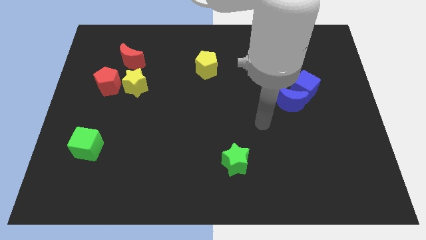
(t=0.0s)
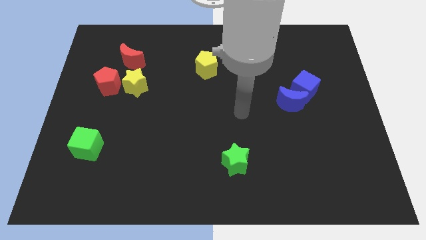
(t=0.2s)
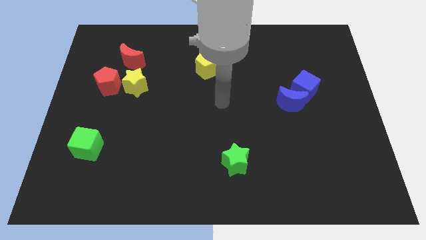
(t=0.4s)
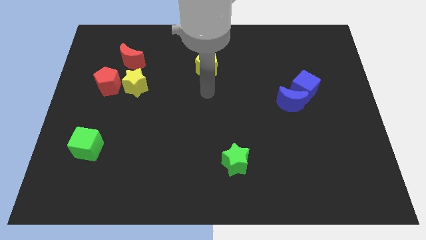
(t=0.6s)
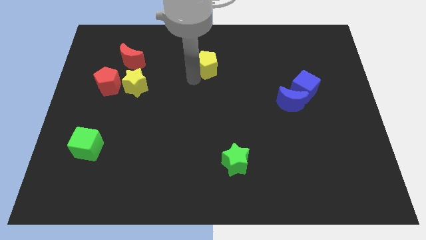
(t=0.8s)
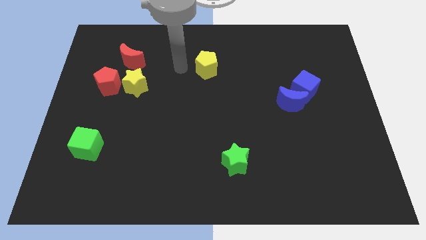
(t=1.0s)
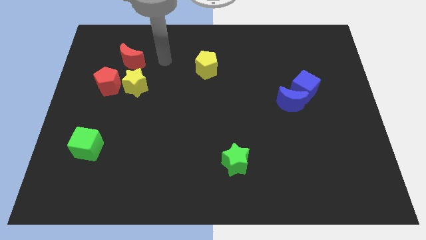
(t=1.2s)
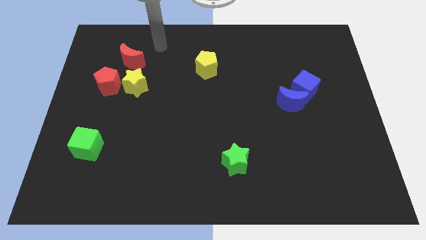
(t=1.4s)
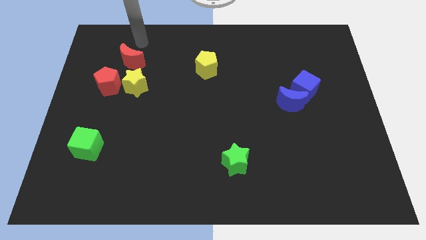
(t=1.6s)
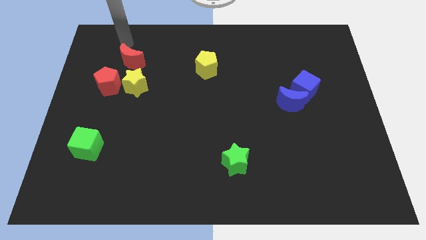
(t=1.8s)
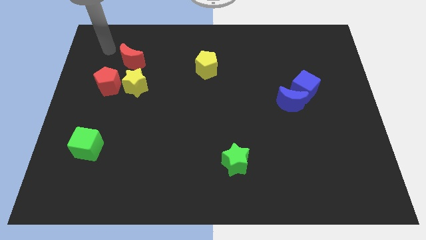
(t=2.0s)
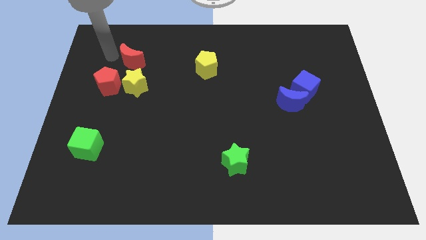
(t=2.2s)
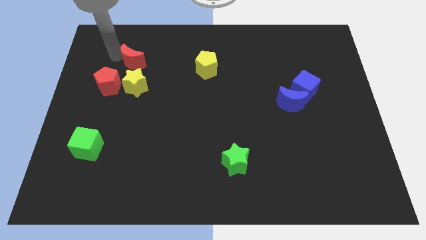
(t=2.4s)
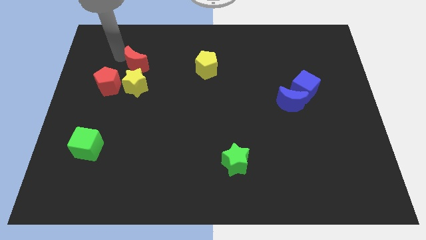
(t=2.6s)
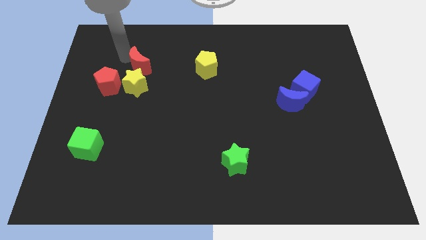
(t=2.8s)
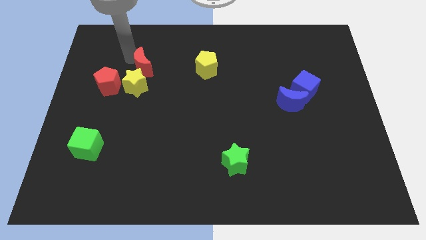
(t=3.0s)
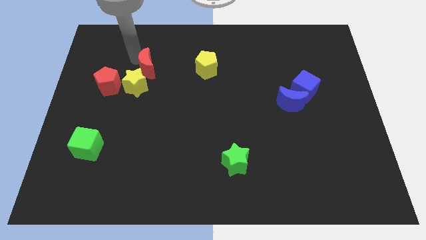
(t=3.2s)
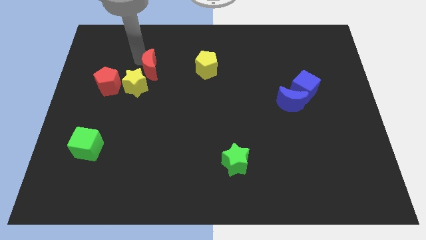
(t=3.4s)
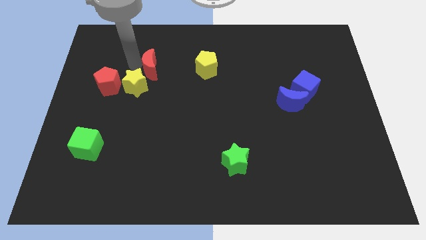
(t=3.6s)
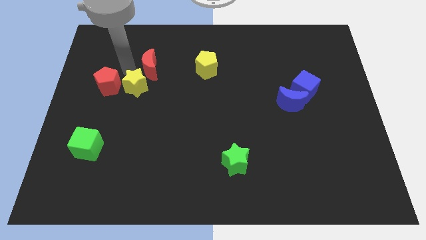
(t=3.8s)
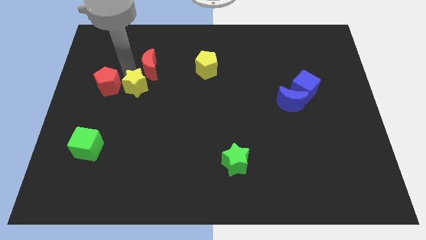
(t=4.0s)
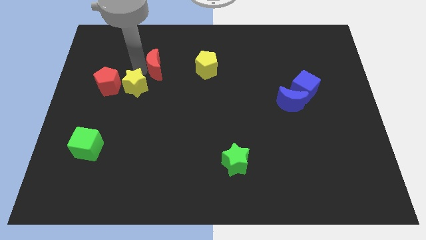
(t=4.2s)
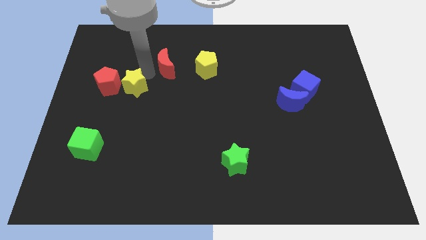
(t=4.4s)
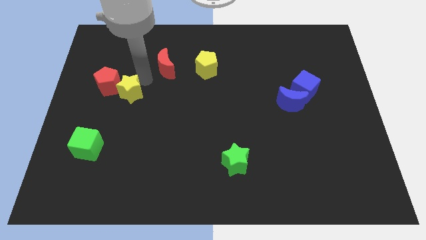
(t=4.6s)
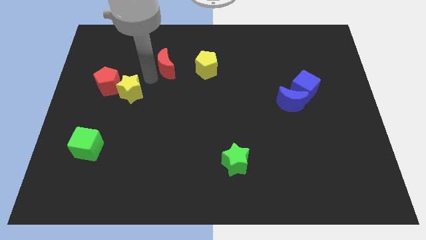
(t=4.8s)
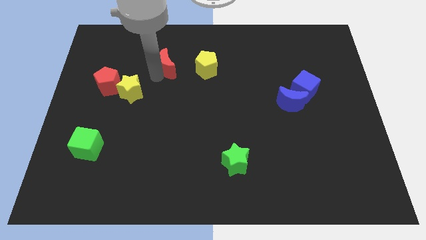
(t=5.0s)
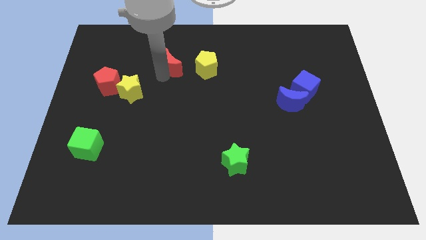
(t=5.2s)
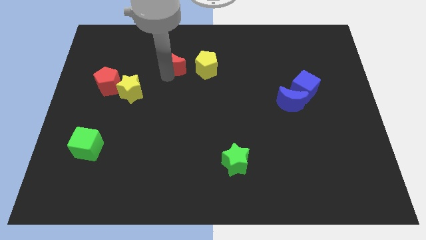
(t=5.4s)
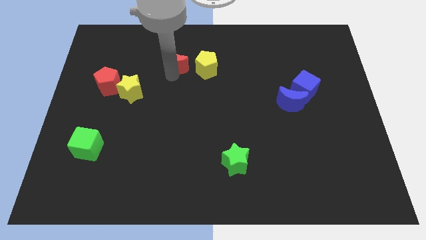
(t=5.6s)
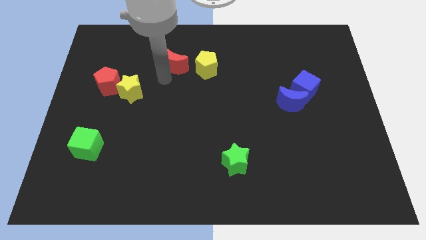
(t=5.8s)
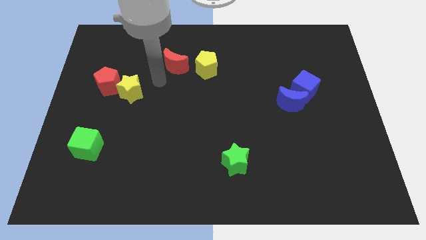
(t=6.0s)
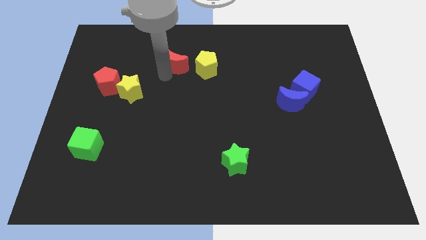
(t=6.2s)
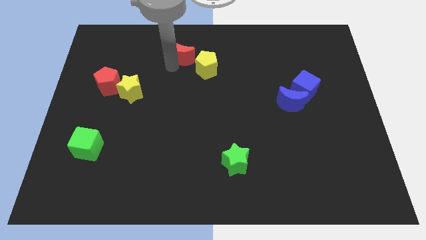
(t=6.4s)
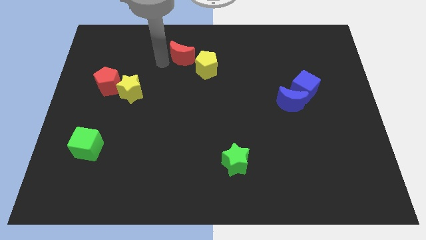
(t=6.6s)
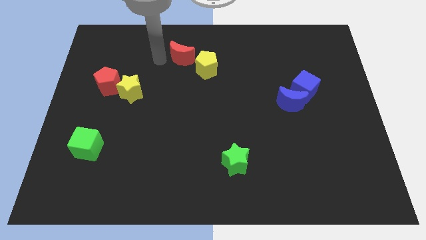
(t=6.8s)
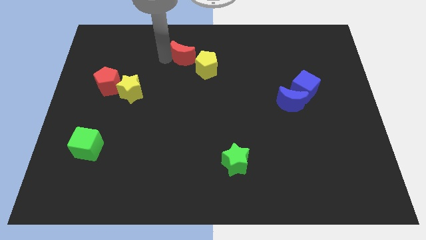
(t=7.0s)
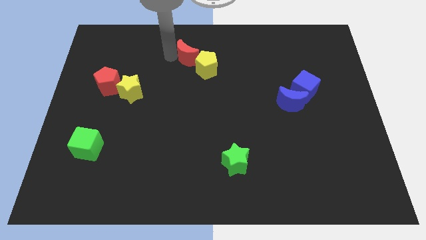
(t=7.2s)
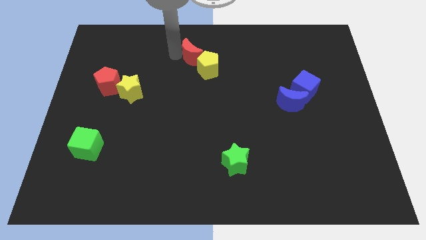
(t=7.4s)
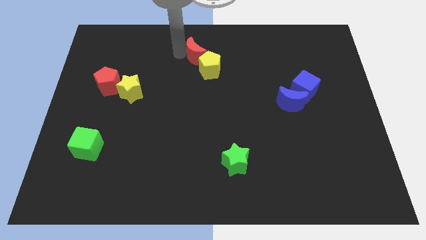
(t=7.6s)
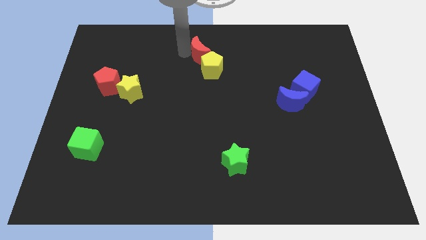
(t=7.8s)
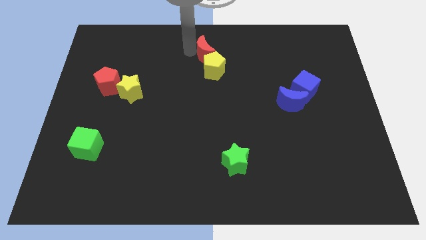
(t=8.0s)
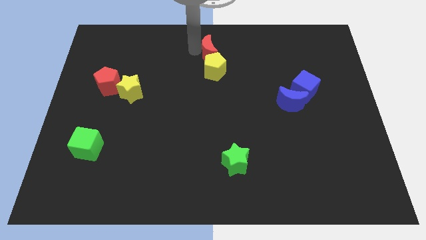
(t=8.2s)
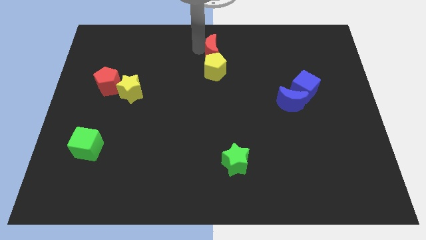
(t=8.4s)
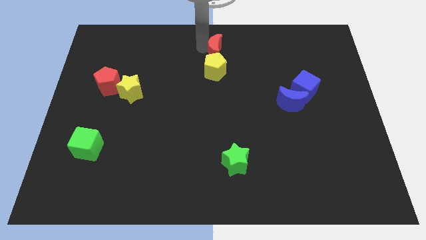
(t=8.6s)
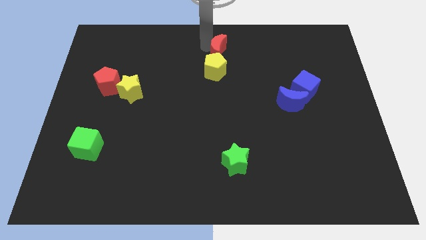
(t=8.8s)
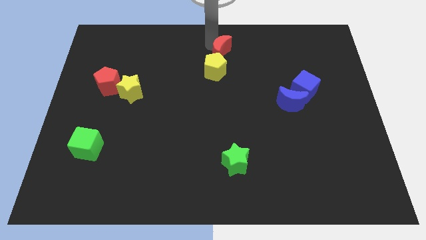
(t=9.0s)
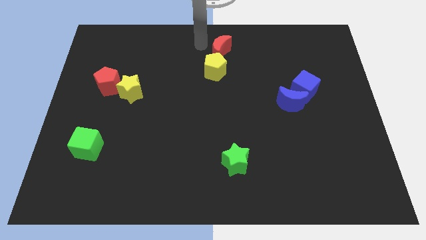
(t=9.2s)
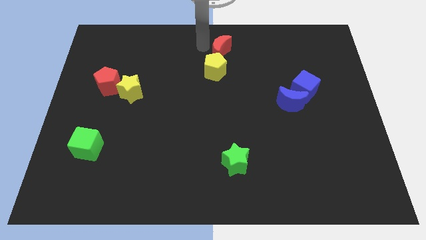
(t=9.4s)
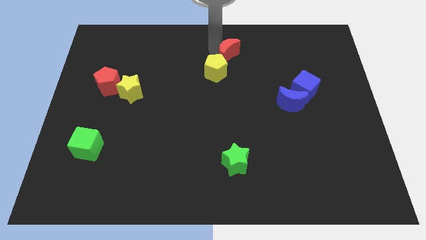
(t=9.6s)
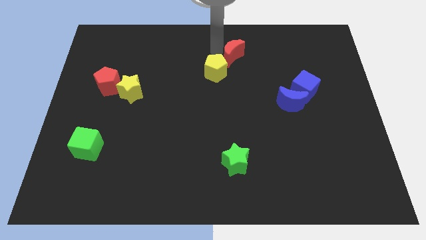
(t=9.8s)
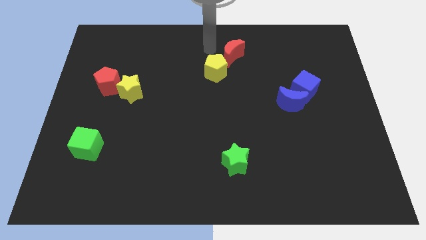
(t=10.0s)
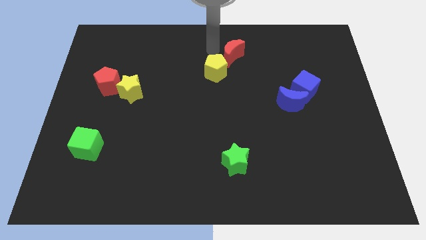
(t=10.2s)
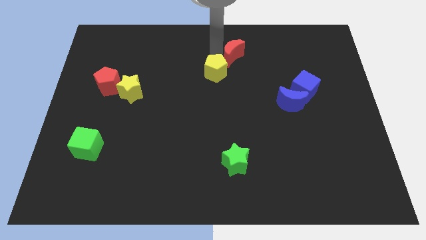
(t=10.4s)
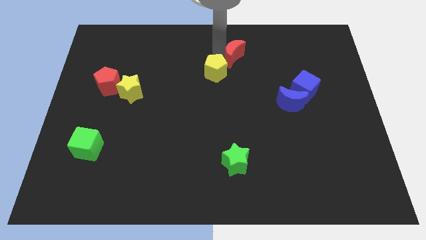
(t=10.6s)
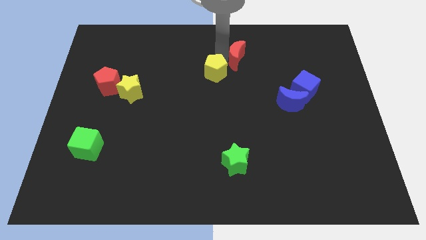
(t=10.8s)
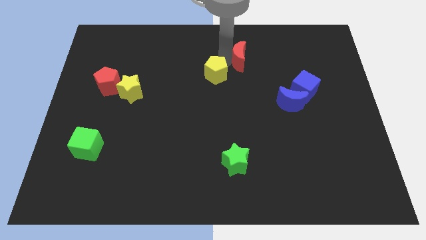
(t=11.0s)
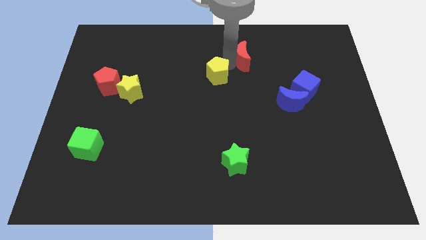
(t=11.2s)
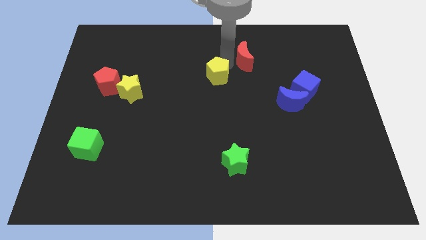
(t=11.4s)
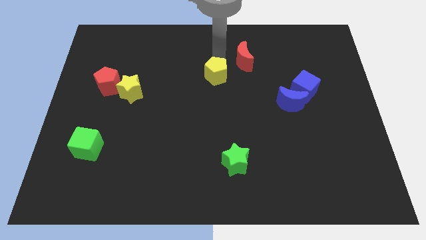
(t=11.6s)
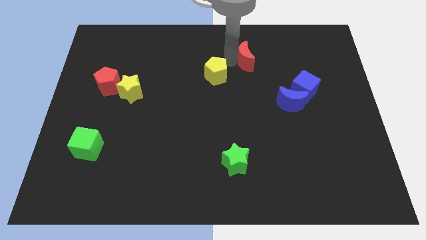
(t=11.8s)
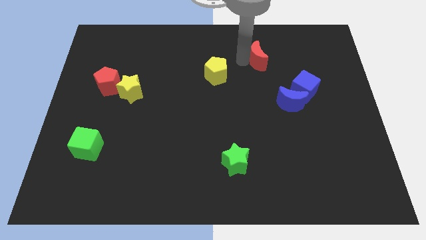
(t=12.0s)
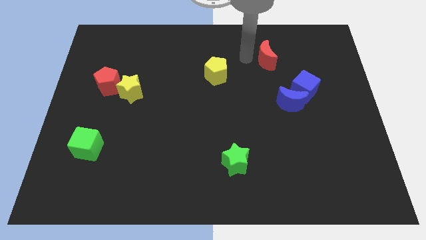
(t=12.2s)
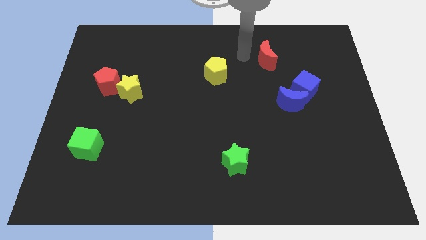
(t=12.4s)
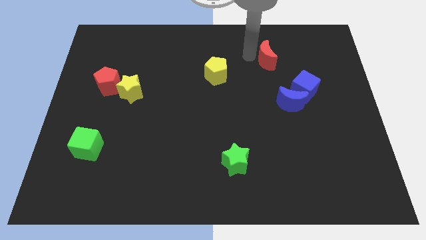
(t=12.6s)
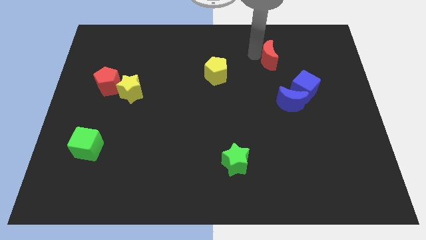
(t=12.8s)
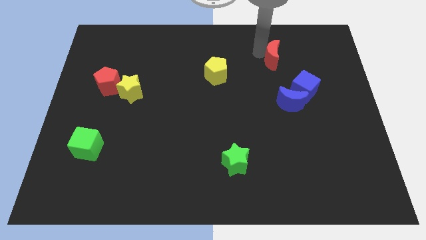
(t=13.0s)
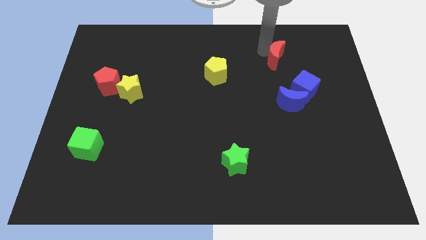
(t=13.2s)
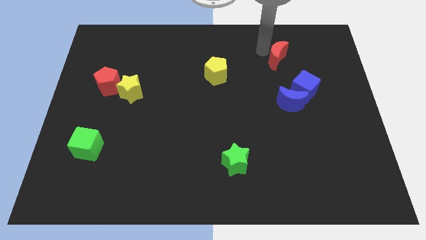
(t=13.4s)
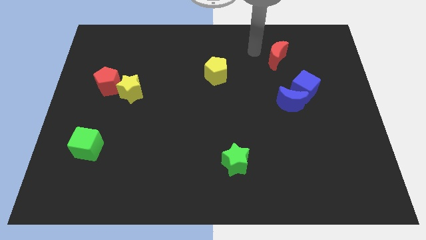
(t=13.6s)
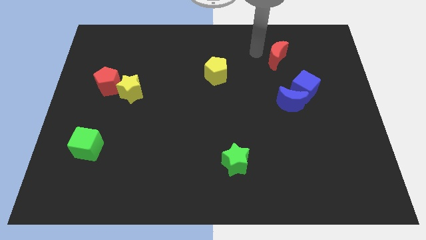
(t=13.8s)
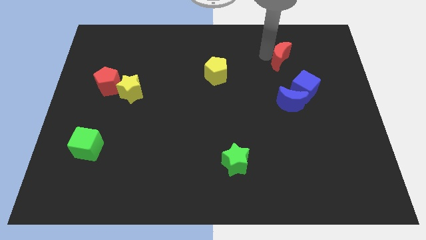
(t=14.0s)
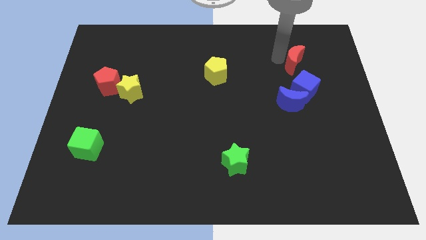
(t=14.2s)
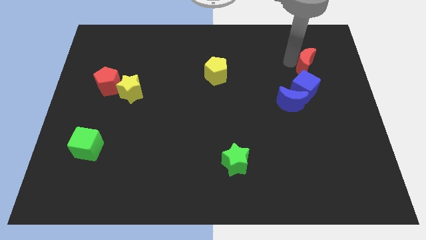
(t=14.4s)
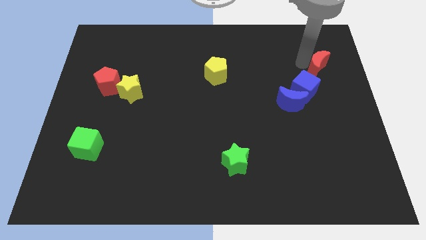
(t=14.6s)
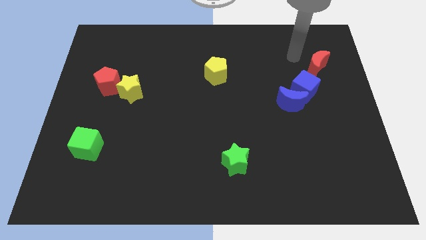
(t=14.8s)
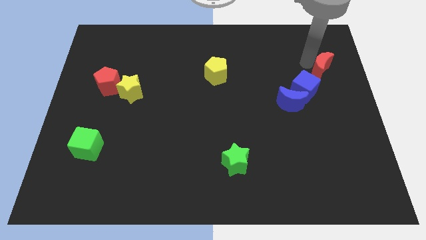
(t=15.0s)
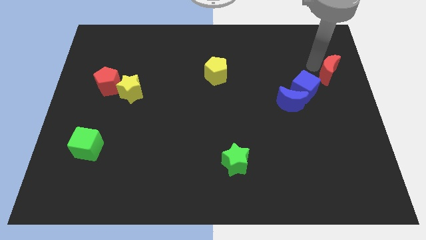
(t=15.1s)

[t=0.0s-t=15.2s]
push the red moon to the right side
